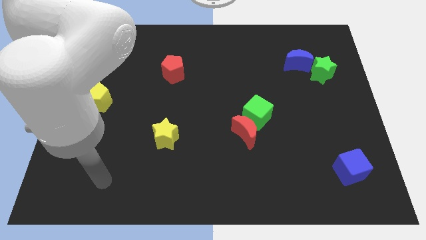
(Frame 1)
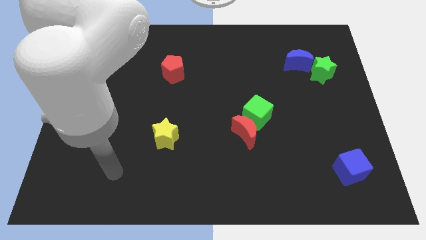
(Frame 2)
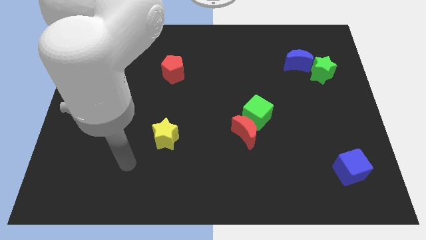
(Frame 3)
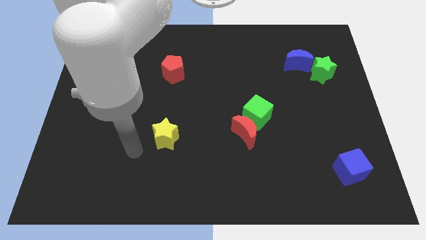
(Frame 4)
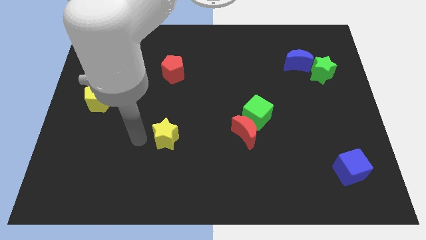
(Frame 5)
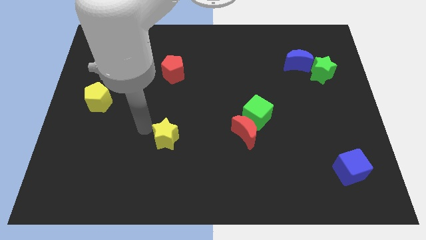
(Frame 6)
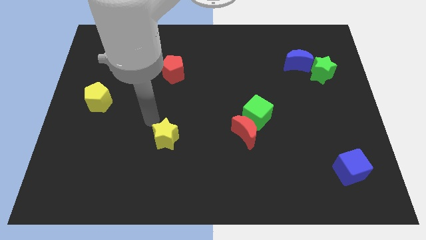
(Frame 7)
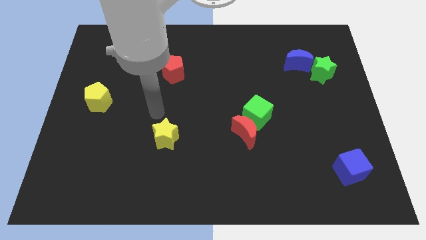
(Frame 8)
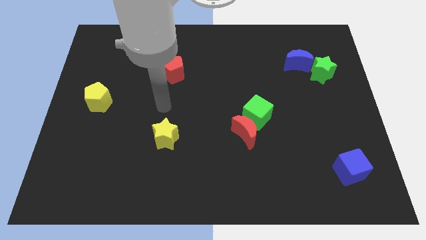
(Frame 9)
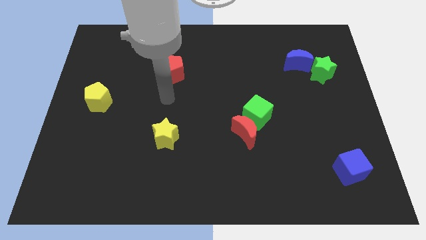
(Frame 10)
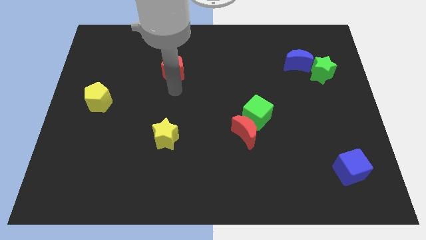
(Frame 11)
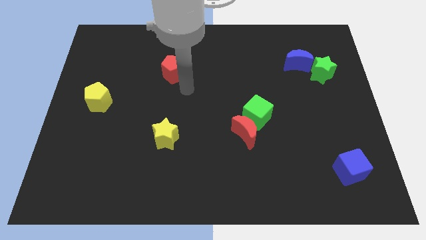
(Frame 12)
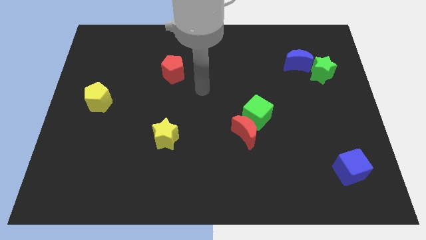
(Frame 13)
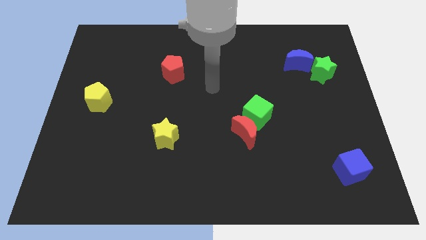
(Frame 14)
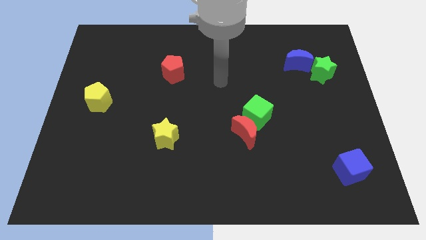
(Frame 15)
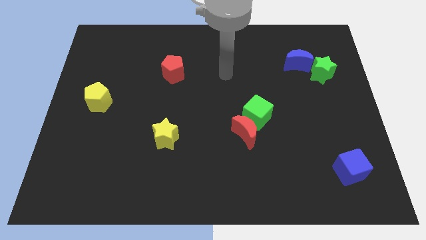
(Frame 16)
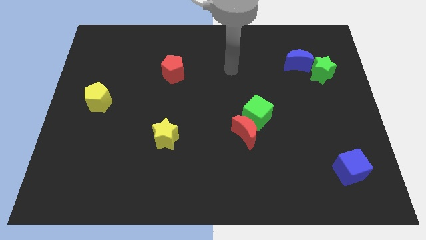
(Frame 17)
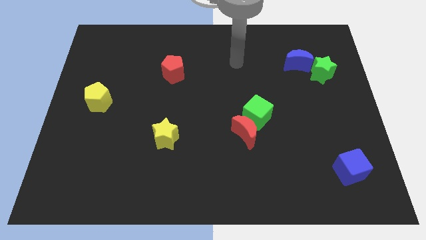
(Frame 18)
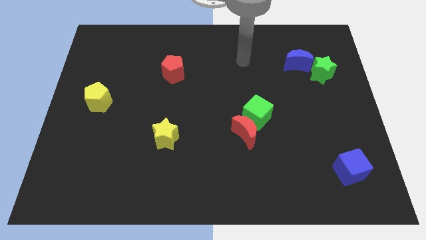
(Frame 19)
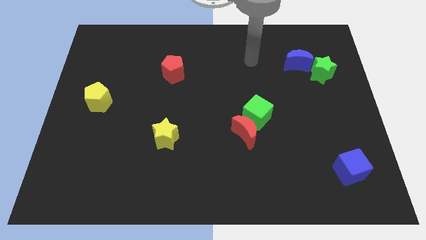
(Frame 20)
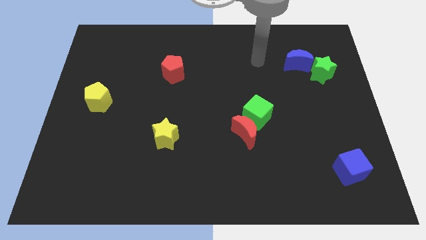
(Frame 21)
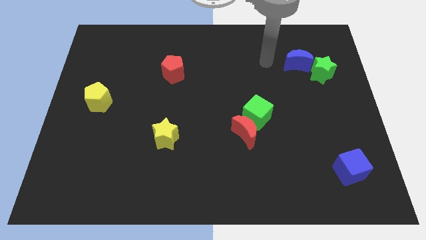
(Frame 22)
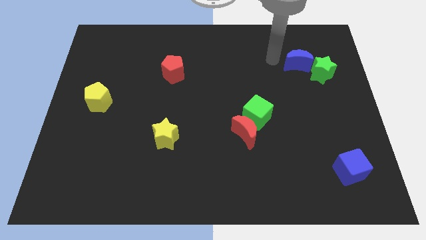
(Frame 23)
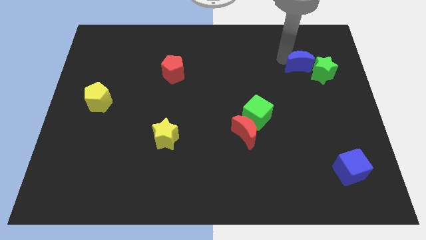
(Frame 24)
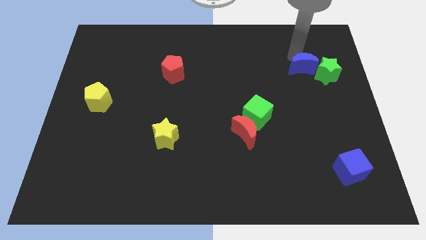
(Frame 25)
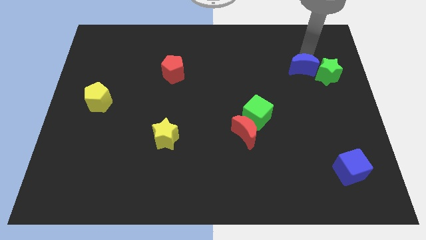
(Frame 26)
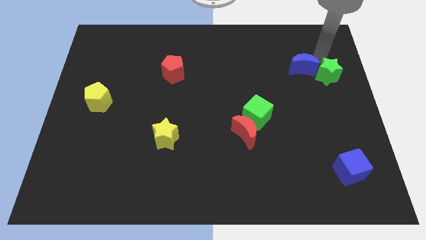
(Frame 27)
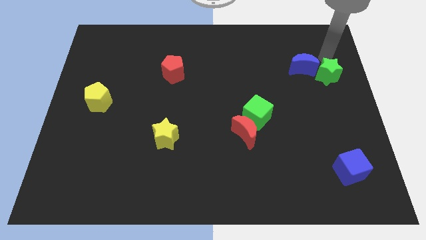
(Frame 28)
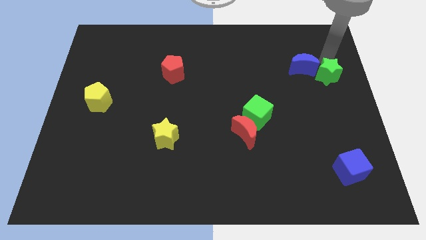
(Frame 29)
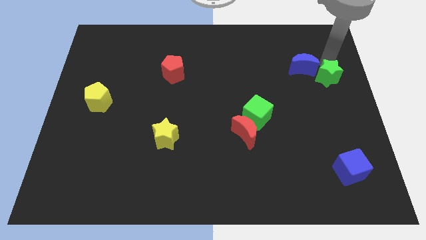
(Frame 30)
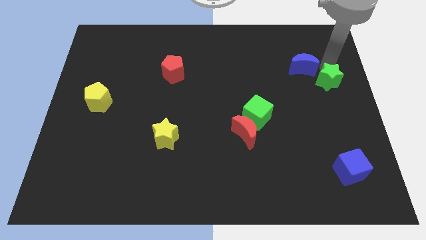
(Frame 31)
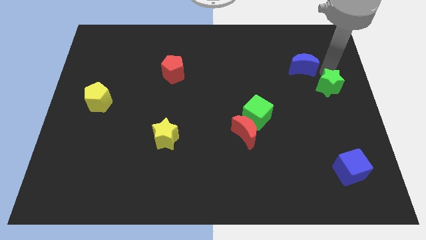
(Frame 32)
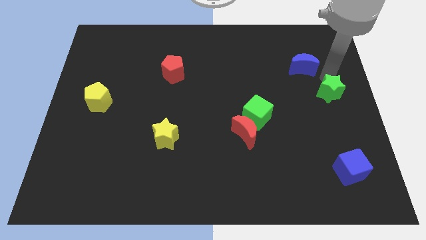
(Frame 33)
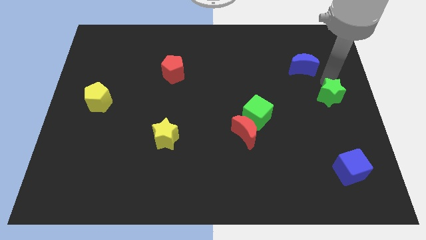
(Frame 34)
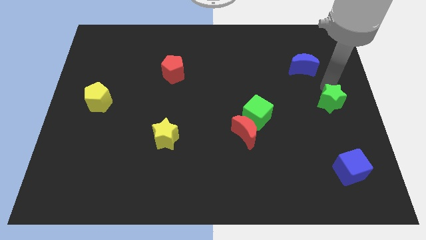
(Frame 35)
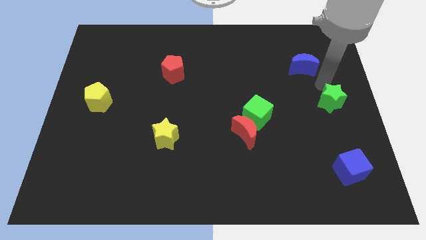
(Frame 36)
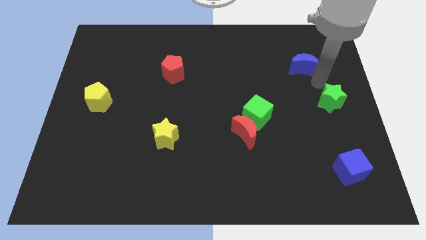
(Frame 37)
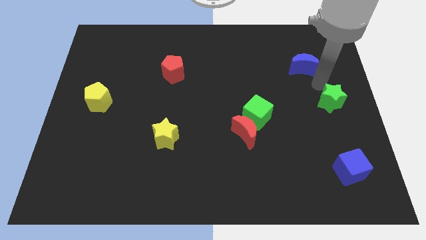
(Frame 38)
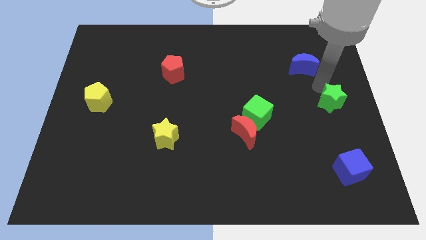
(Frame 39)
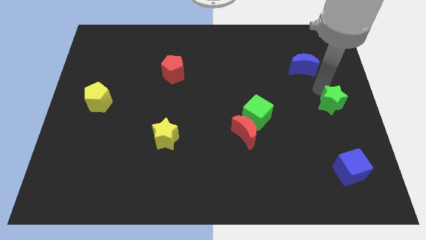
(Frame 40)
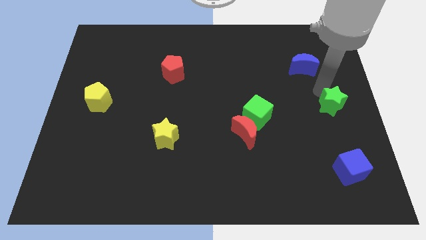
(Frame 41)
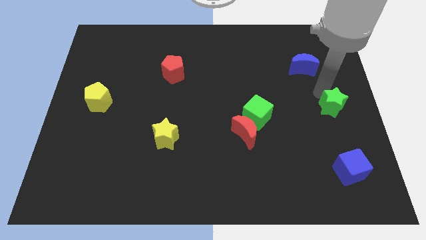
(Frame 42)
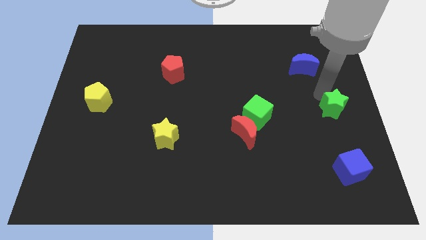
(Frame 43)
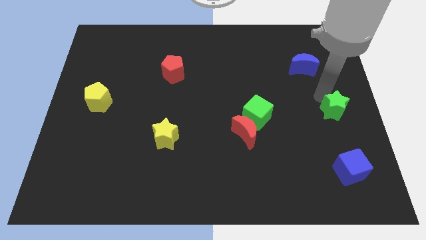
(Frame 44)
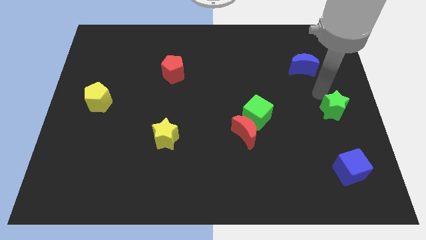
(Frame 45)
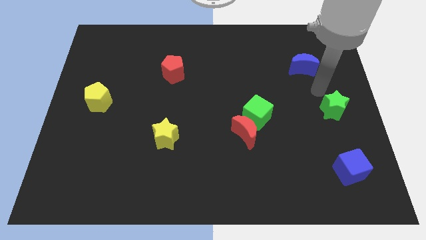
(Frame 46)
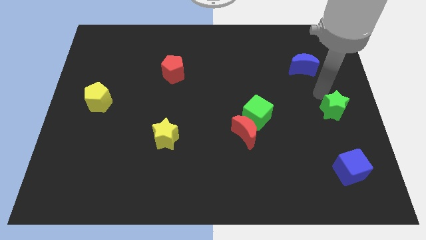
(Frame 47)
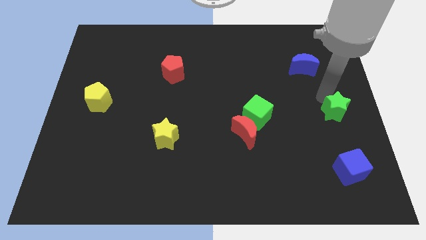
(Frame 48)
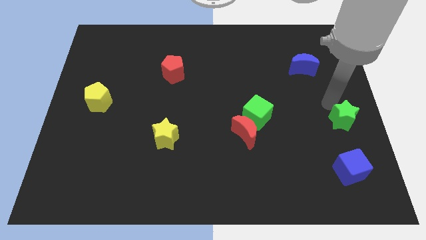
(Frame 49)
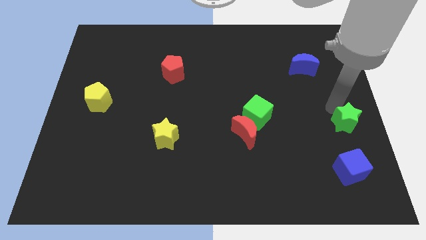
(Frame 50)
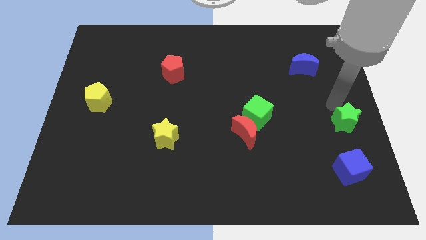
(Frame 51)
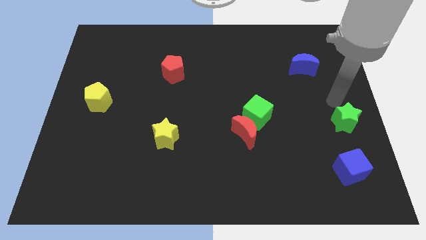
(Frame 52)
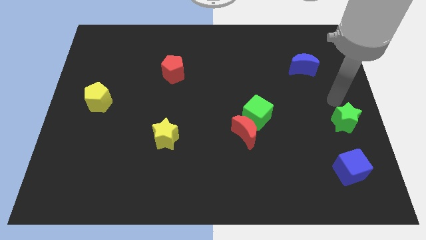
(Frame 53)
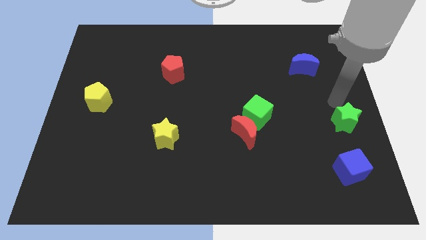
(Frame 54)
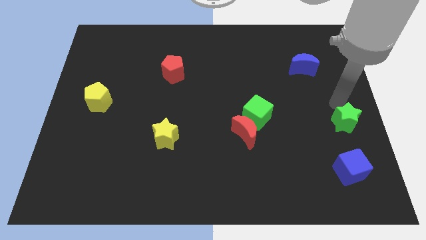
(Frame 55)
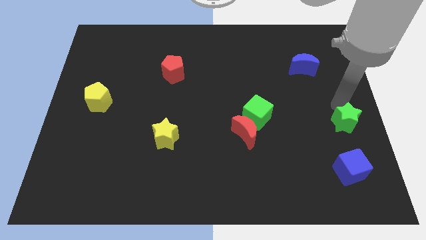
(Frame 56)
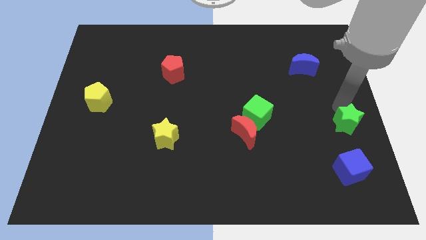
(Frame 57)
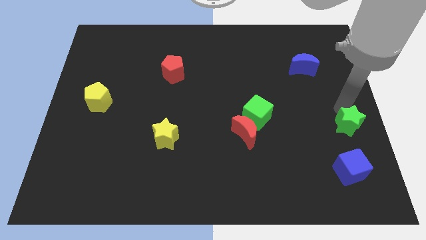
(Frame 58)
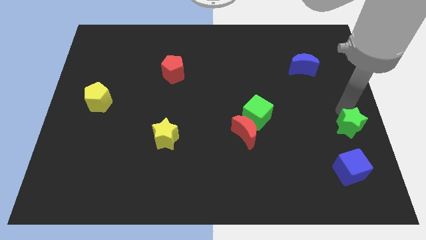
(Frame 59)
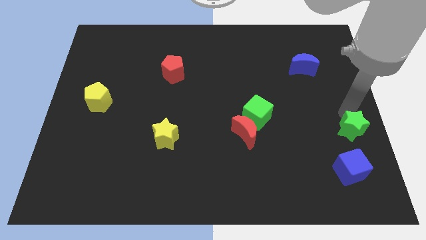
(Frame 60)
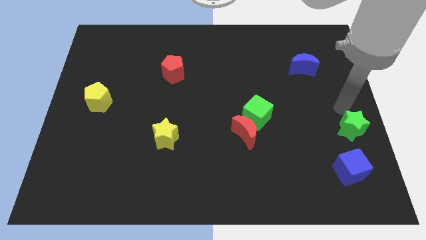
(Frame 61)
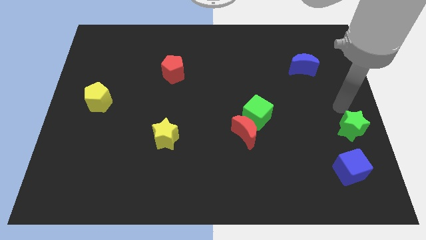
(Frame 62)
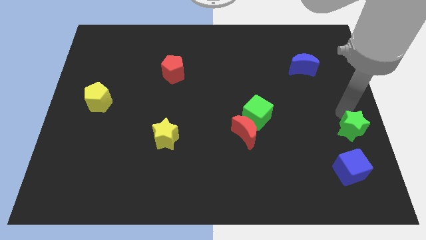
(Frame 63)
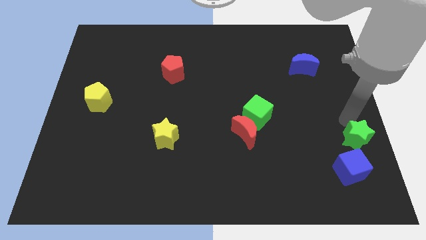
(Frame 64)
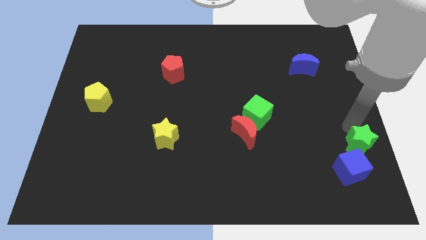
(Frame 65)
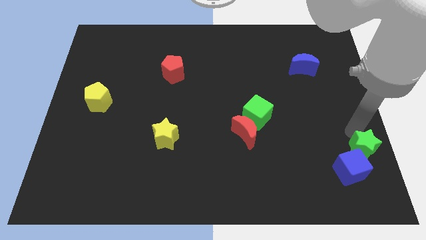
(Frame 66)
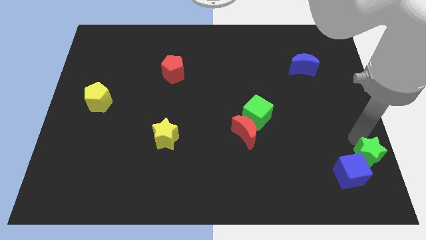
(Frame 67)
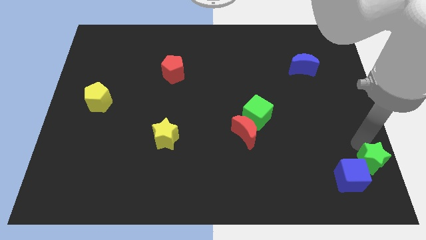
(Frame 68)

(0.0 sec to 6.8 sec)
put the green star to the bottom right of the board
